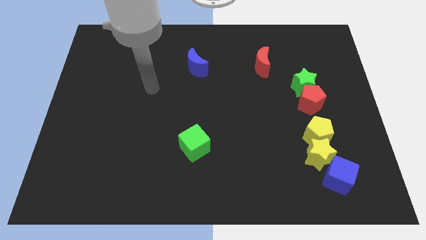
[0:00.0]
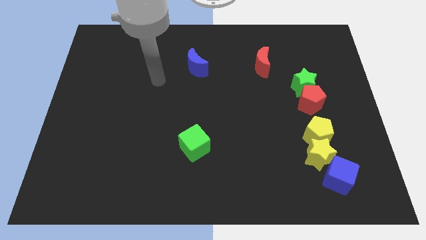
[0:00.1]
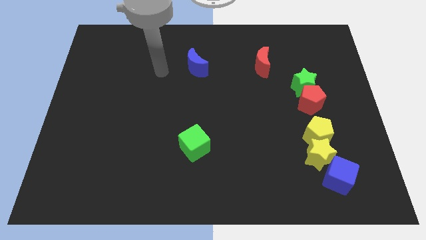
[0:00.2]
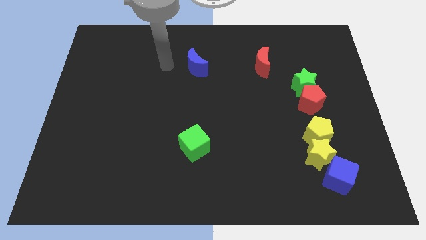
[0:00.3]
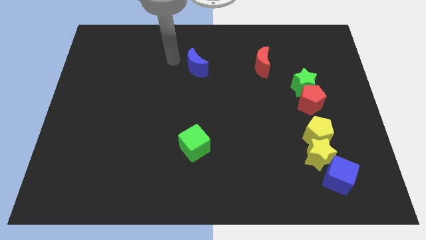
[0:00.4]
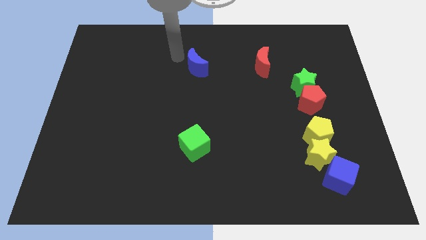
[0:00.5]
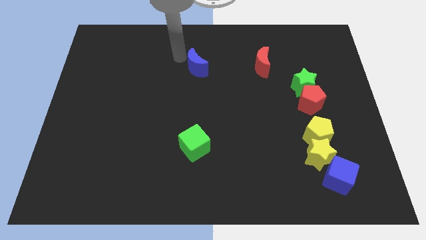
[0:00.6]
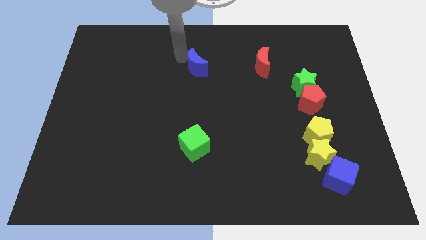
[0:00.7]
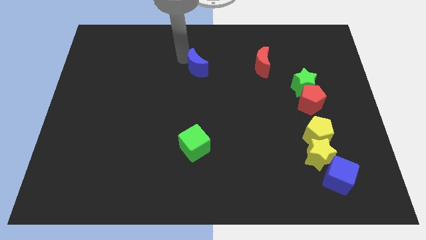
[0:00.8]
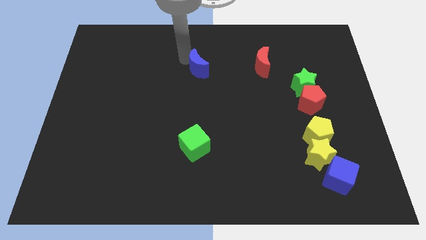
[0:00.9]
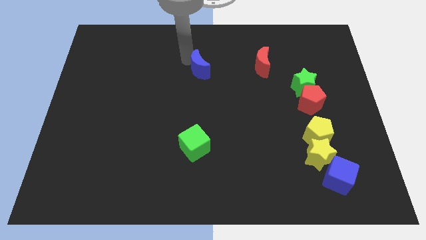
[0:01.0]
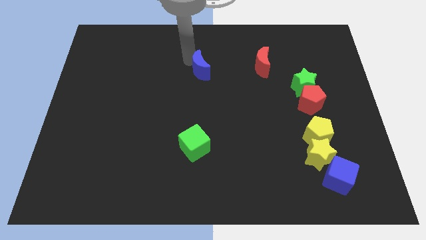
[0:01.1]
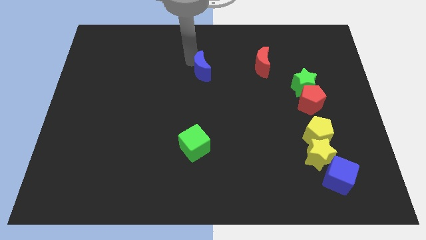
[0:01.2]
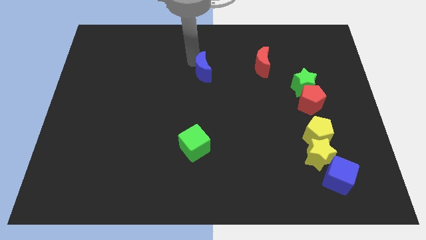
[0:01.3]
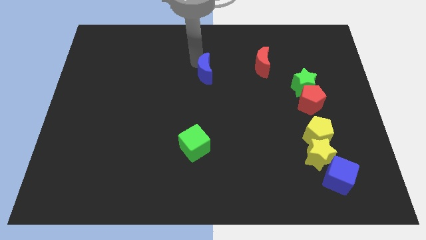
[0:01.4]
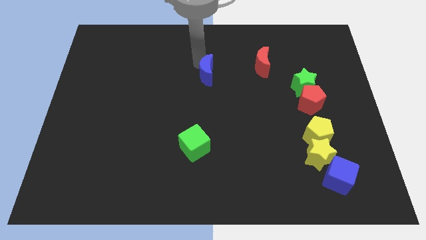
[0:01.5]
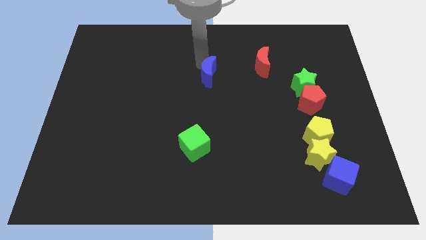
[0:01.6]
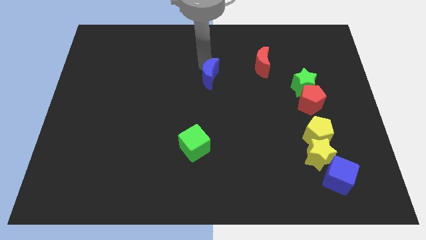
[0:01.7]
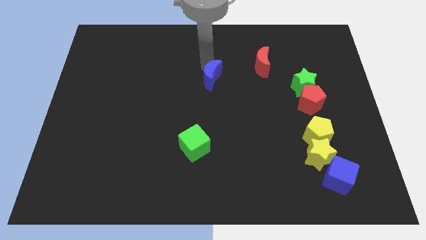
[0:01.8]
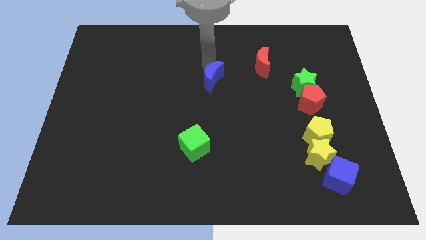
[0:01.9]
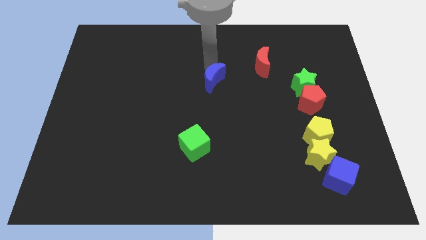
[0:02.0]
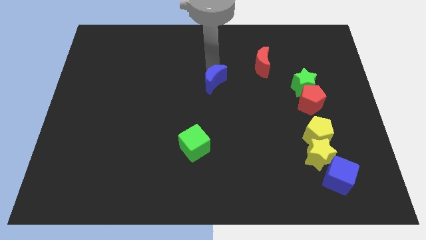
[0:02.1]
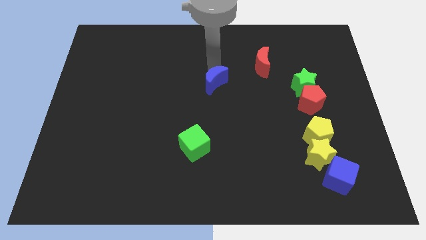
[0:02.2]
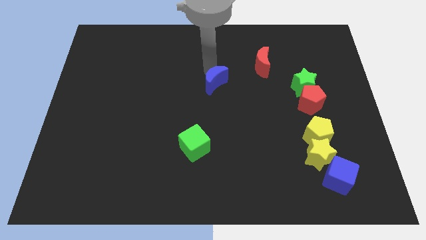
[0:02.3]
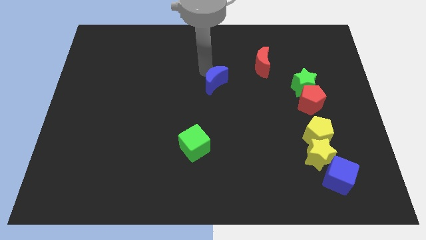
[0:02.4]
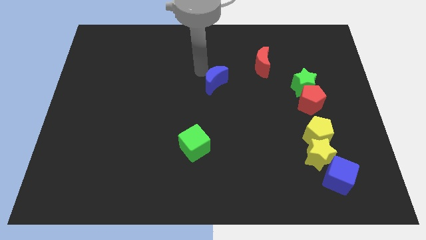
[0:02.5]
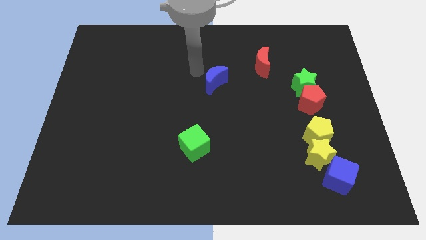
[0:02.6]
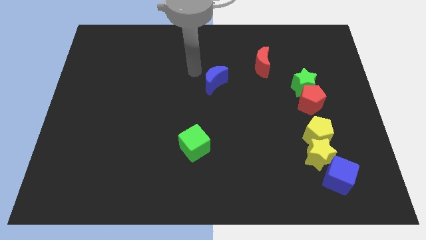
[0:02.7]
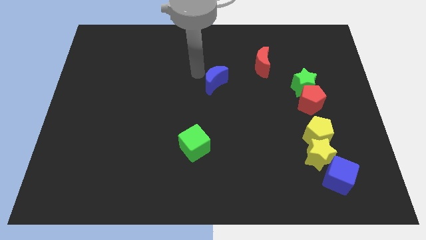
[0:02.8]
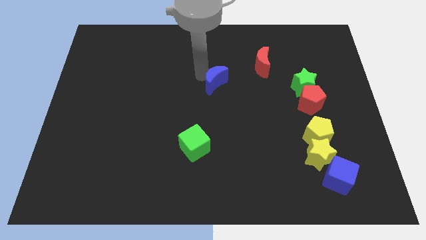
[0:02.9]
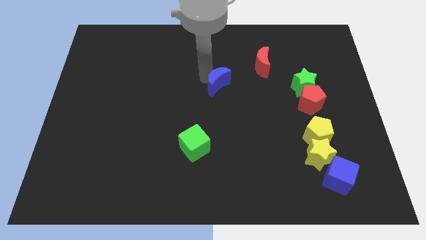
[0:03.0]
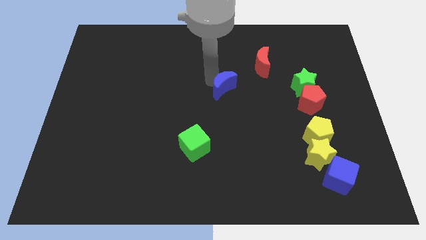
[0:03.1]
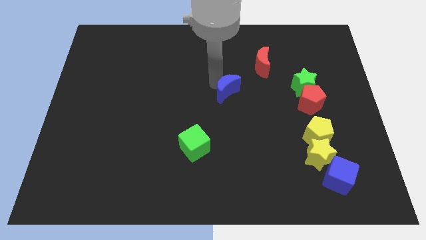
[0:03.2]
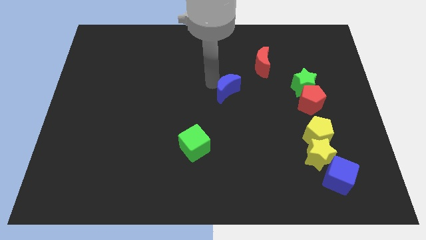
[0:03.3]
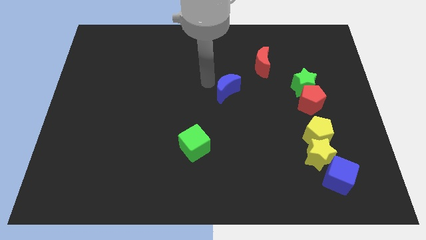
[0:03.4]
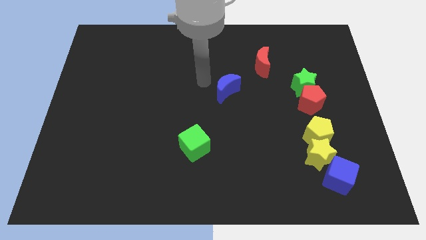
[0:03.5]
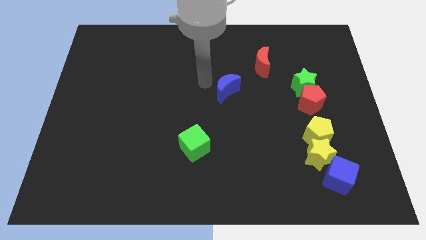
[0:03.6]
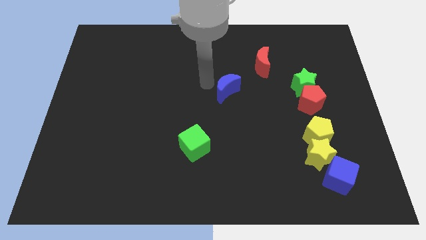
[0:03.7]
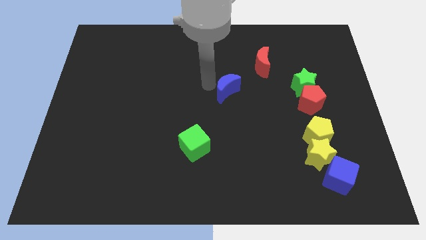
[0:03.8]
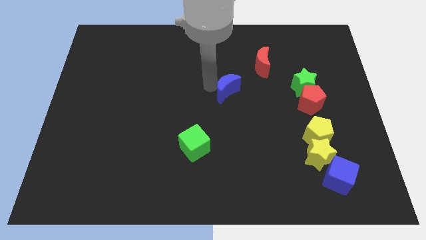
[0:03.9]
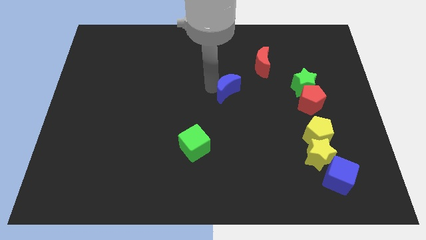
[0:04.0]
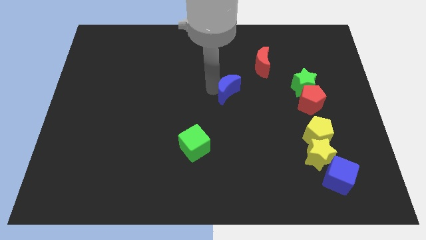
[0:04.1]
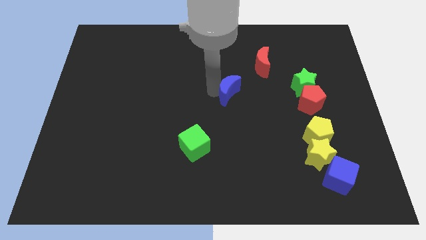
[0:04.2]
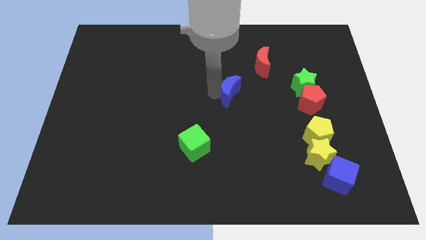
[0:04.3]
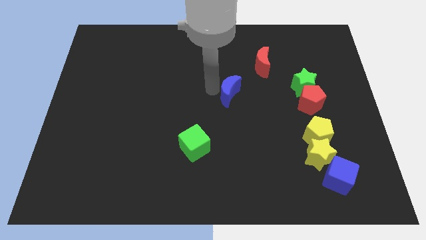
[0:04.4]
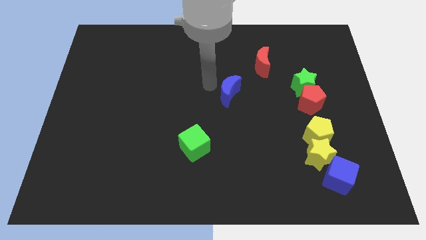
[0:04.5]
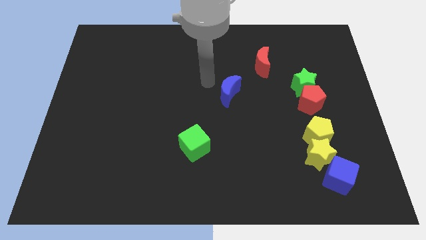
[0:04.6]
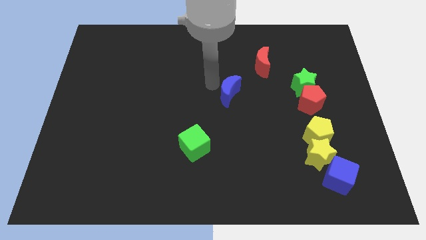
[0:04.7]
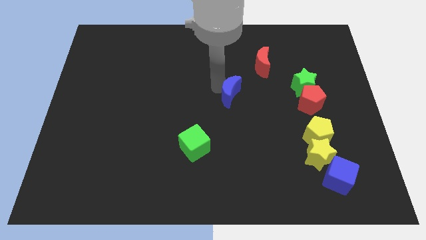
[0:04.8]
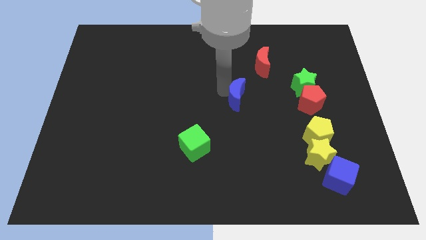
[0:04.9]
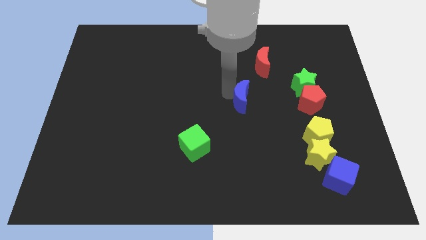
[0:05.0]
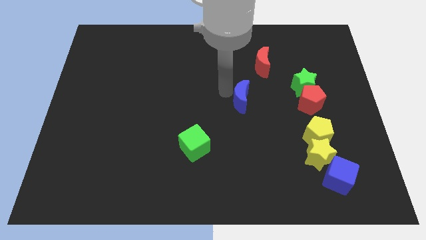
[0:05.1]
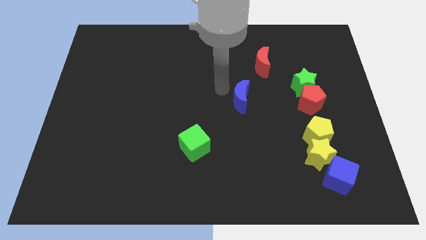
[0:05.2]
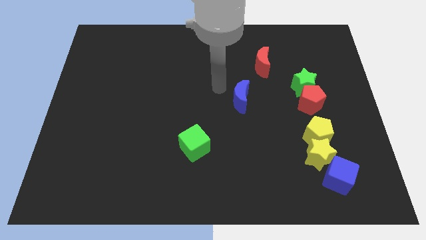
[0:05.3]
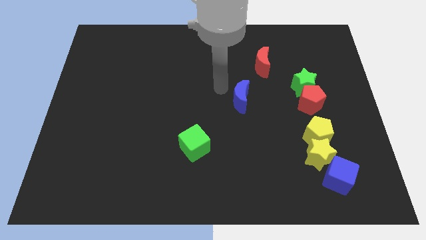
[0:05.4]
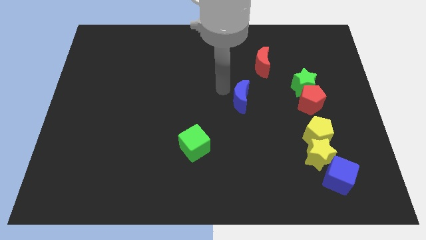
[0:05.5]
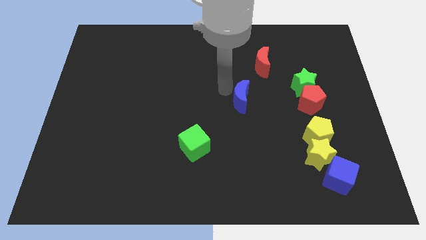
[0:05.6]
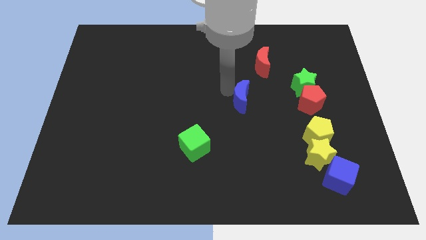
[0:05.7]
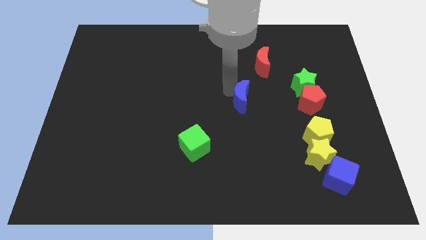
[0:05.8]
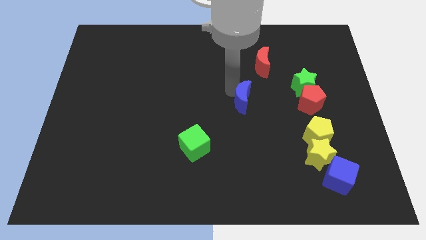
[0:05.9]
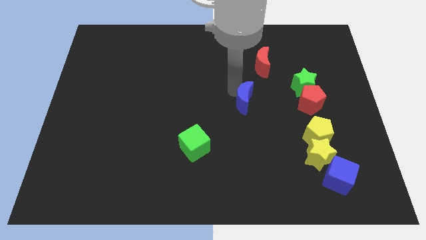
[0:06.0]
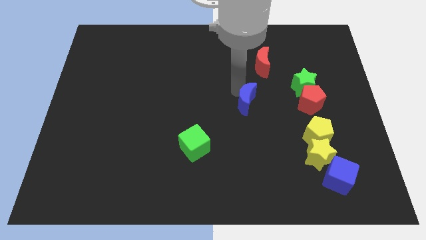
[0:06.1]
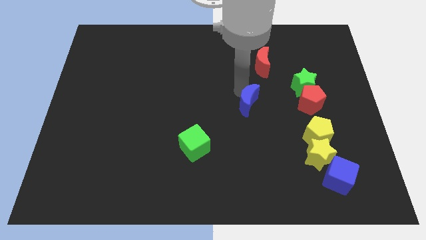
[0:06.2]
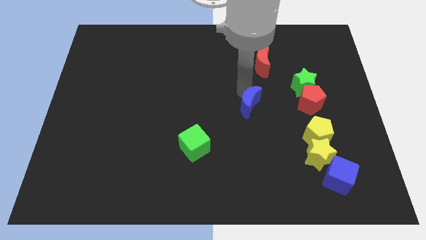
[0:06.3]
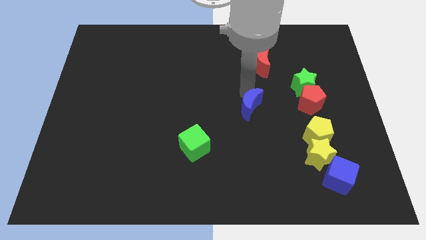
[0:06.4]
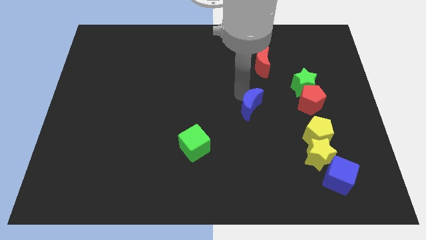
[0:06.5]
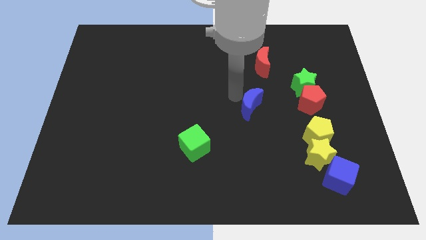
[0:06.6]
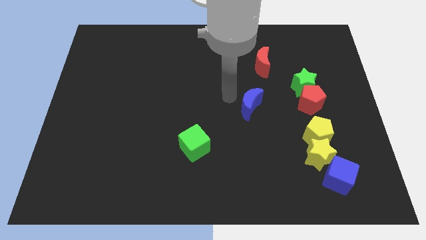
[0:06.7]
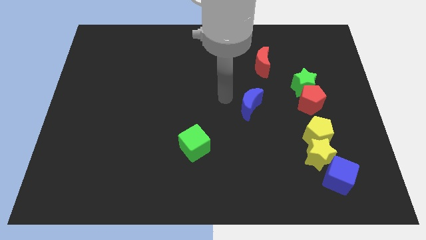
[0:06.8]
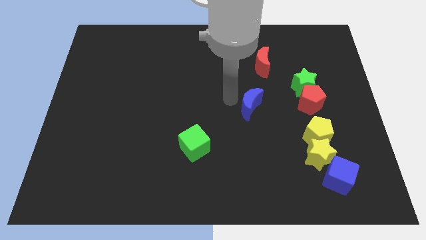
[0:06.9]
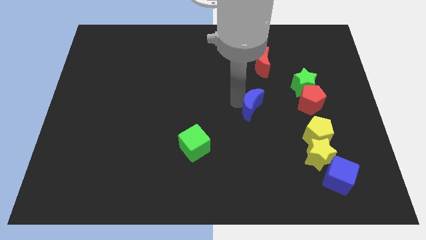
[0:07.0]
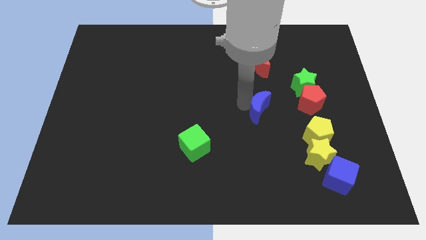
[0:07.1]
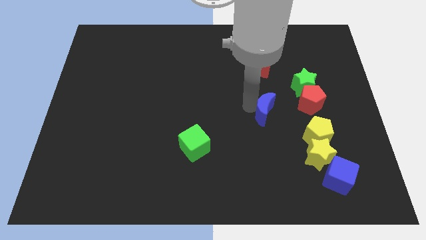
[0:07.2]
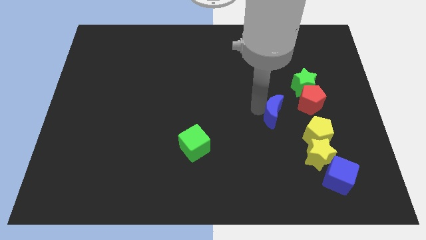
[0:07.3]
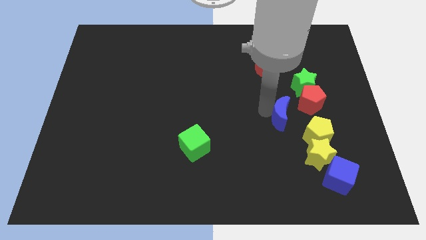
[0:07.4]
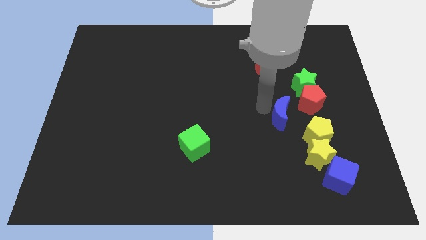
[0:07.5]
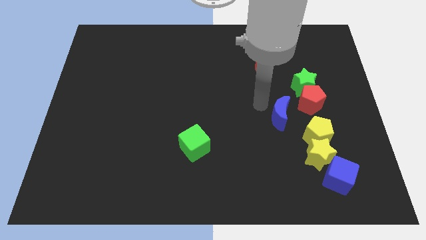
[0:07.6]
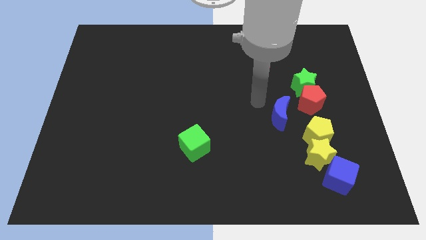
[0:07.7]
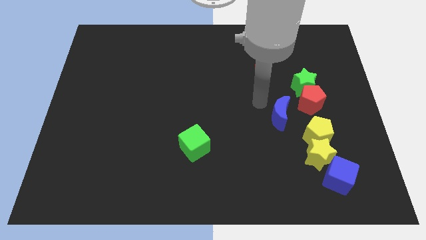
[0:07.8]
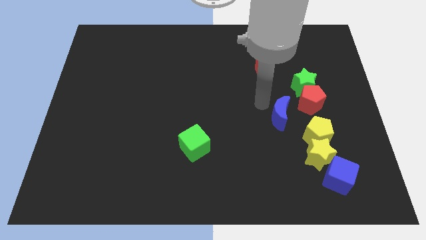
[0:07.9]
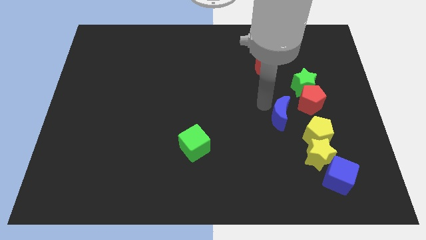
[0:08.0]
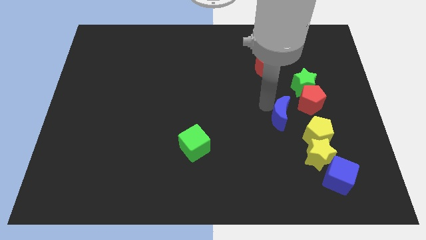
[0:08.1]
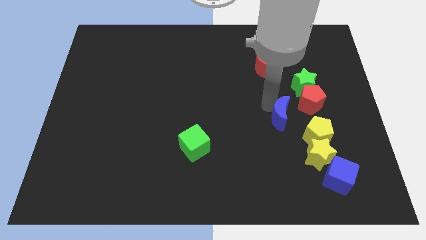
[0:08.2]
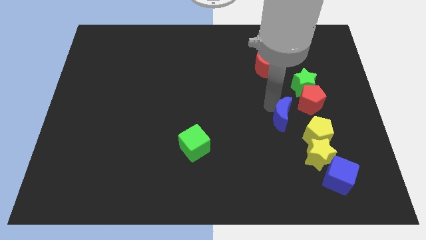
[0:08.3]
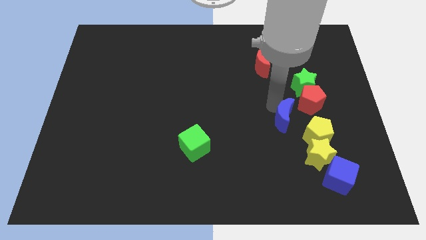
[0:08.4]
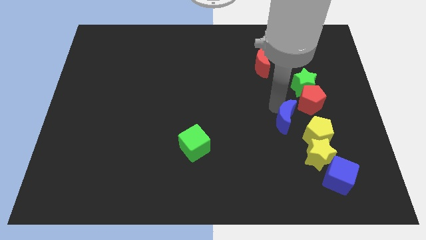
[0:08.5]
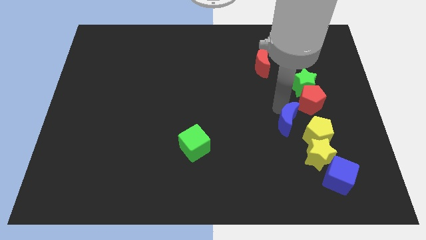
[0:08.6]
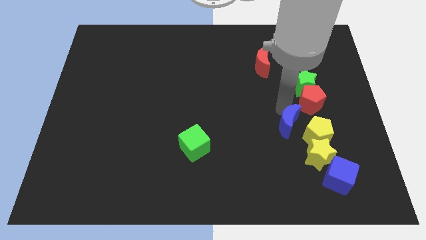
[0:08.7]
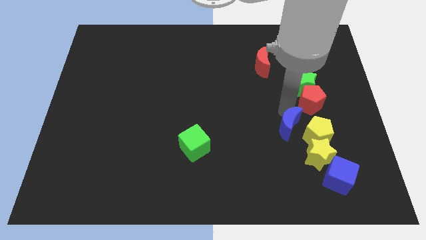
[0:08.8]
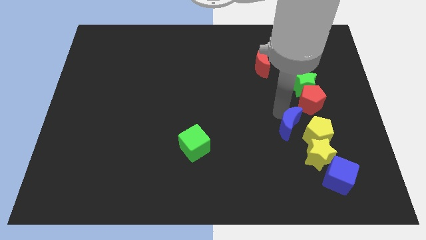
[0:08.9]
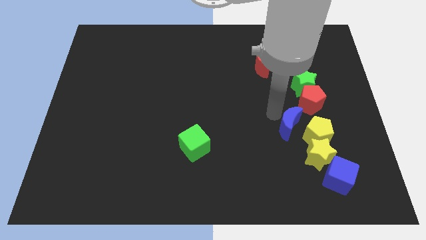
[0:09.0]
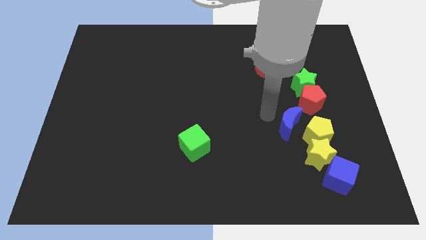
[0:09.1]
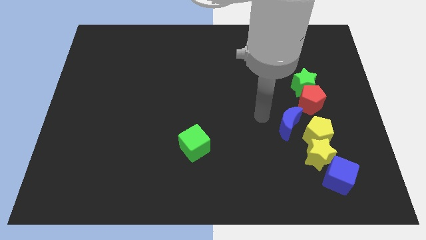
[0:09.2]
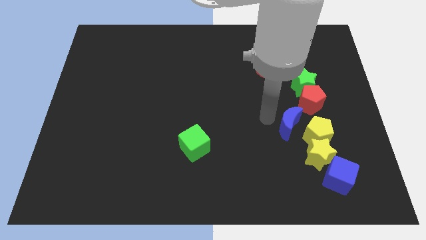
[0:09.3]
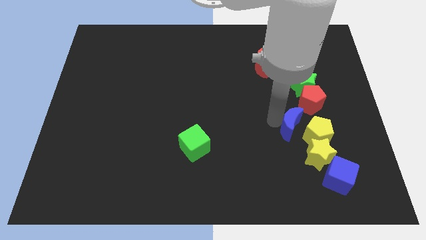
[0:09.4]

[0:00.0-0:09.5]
slide the blue moon to the yellow pentagon
